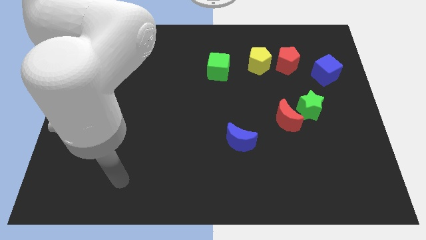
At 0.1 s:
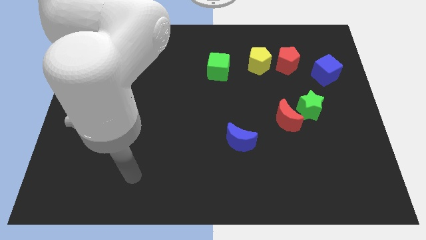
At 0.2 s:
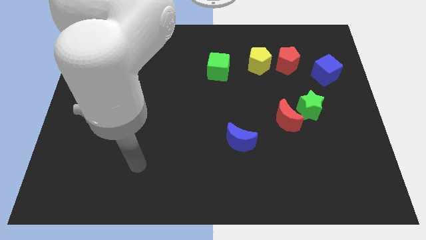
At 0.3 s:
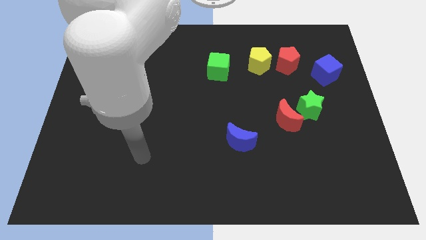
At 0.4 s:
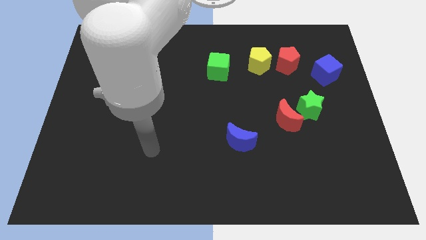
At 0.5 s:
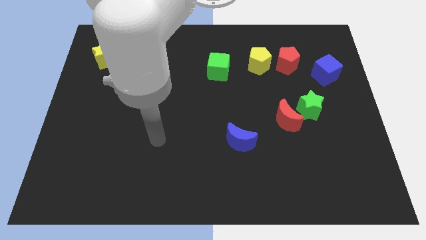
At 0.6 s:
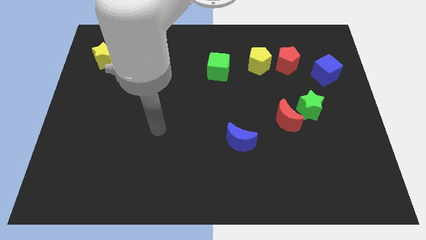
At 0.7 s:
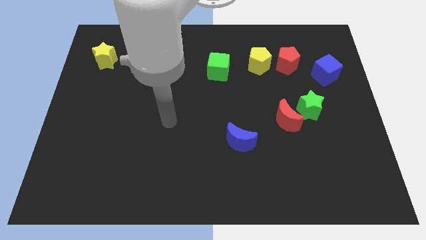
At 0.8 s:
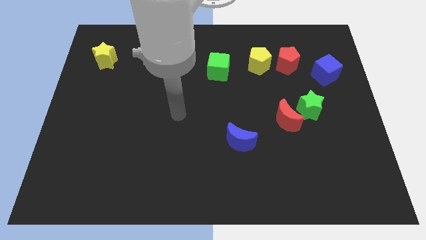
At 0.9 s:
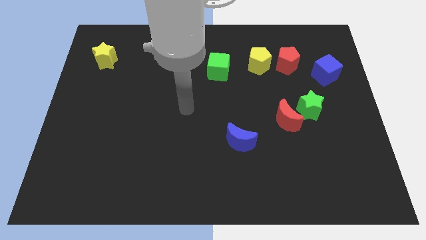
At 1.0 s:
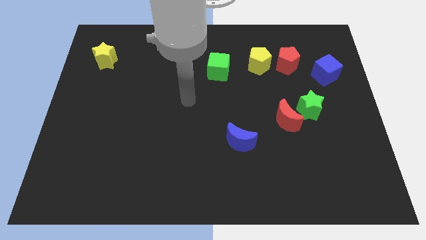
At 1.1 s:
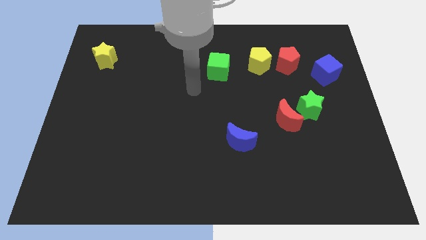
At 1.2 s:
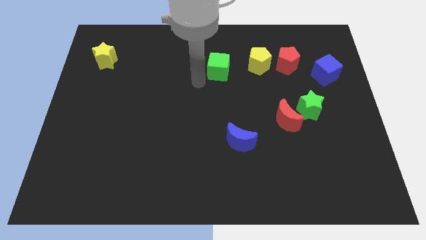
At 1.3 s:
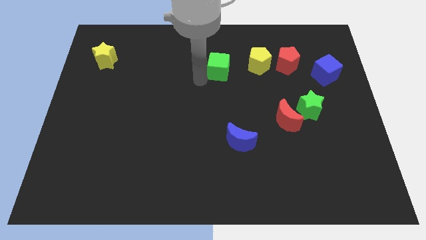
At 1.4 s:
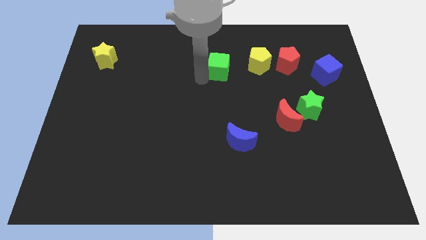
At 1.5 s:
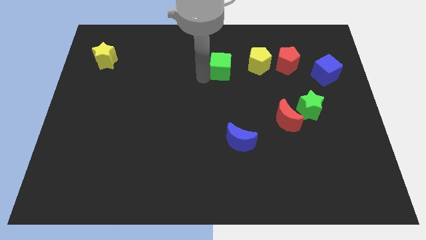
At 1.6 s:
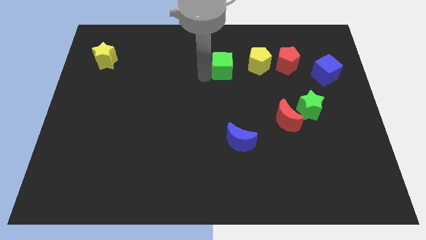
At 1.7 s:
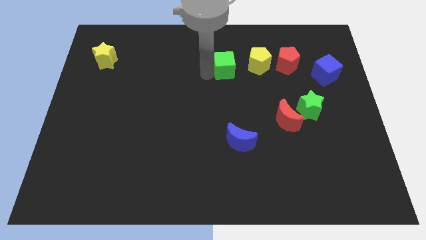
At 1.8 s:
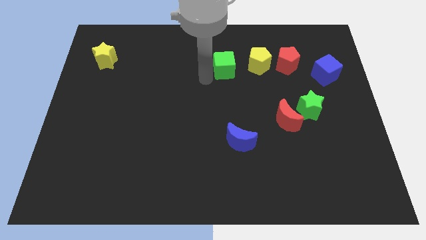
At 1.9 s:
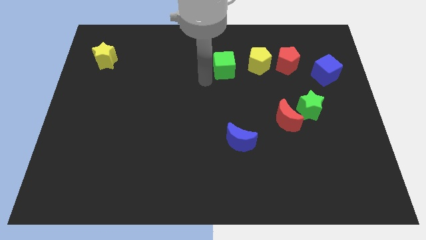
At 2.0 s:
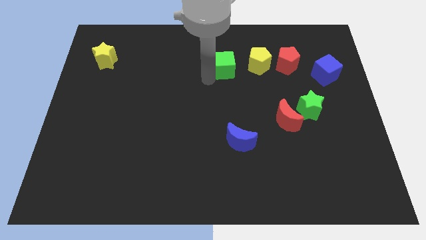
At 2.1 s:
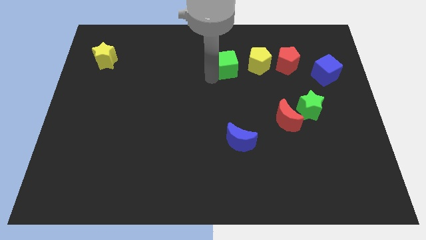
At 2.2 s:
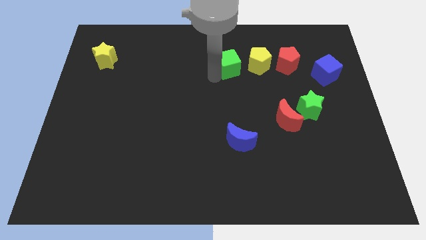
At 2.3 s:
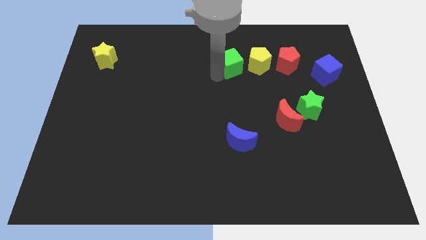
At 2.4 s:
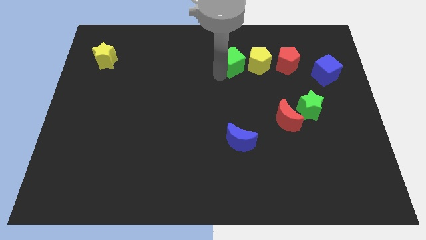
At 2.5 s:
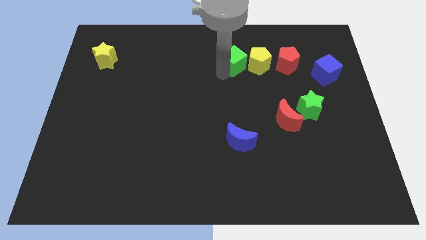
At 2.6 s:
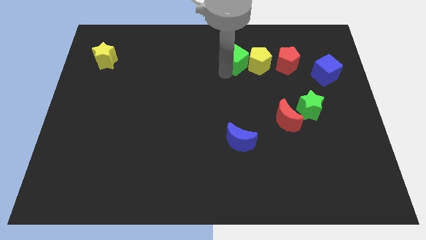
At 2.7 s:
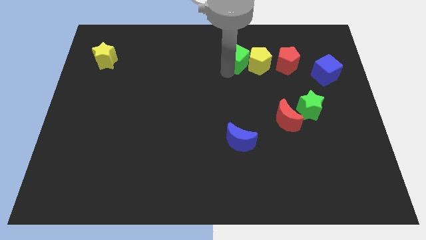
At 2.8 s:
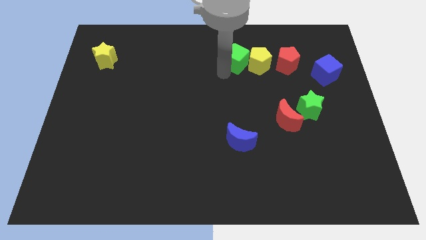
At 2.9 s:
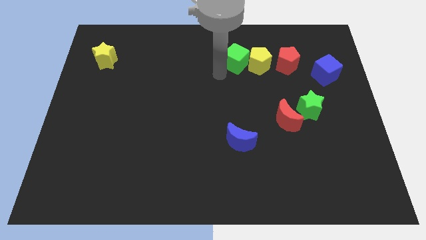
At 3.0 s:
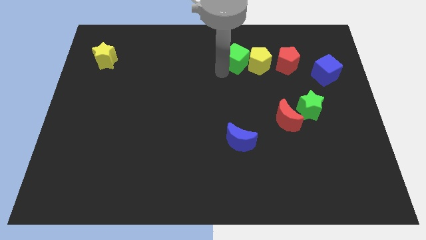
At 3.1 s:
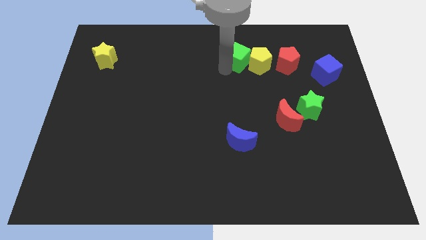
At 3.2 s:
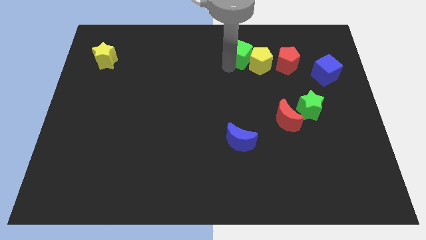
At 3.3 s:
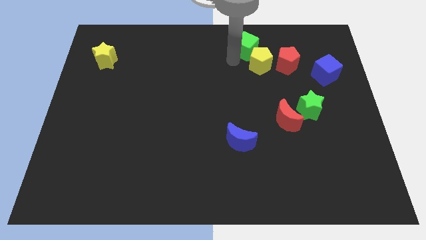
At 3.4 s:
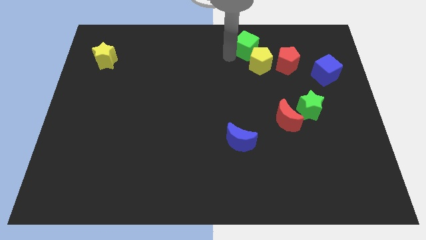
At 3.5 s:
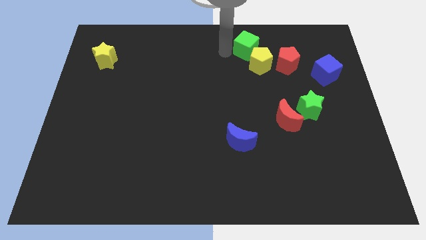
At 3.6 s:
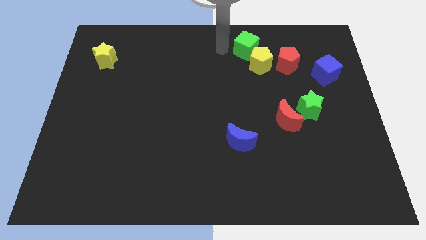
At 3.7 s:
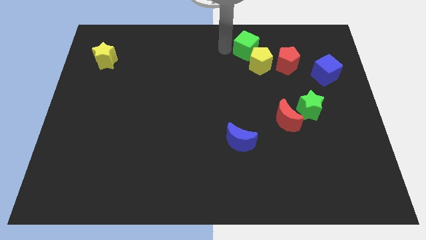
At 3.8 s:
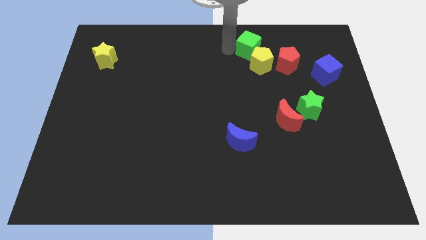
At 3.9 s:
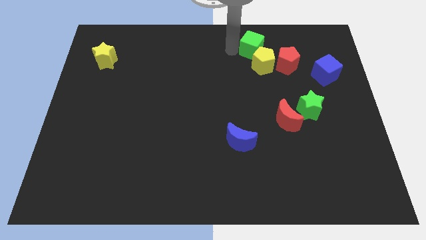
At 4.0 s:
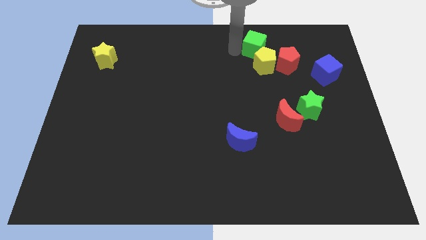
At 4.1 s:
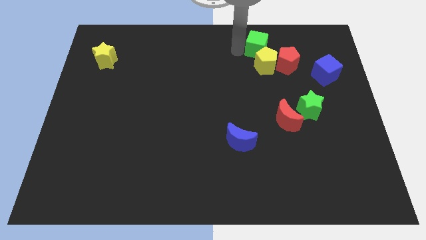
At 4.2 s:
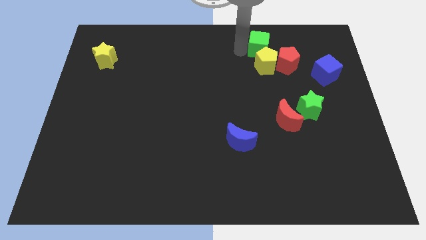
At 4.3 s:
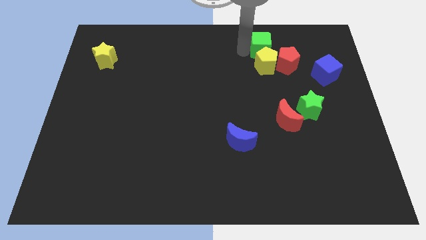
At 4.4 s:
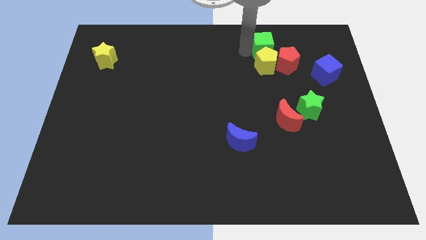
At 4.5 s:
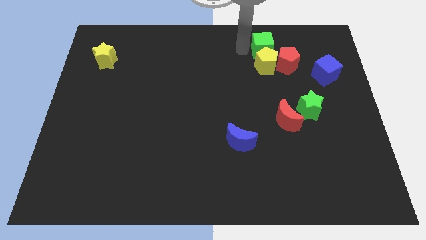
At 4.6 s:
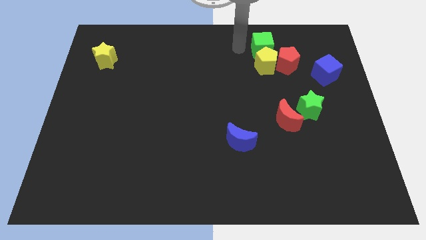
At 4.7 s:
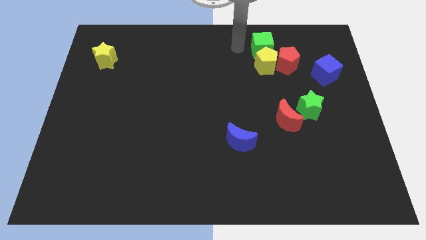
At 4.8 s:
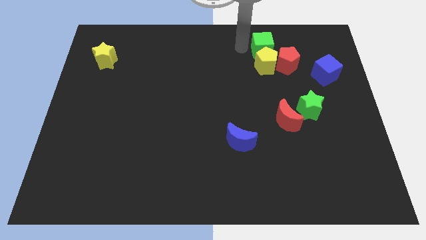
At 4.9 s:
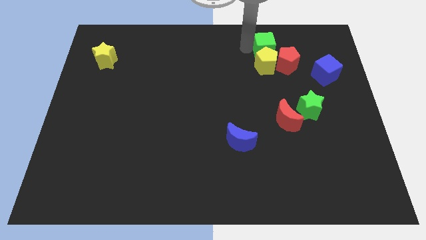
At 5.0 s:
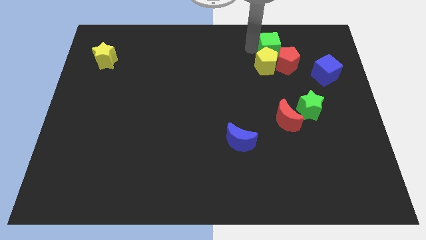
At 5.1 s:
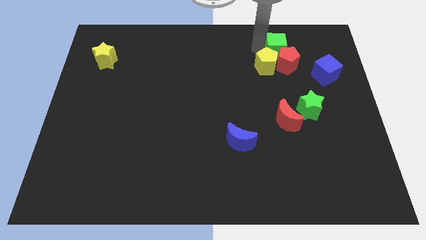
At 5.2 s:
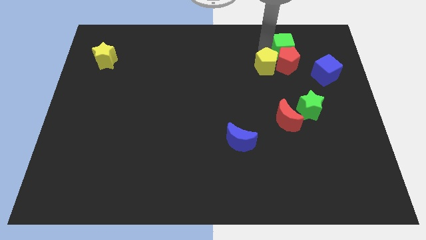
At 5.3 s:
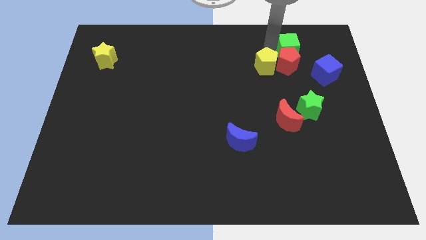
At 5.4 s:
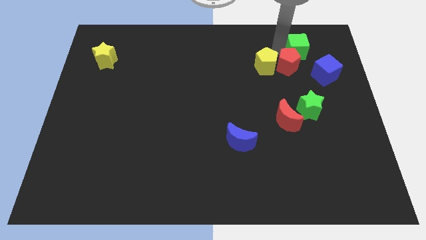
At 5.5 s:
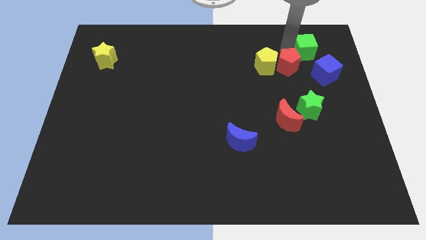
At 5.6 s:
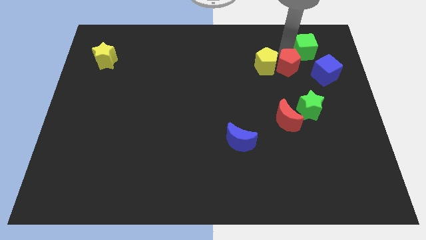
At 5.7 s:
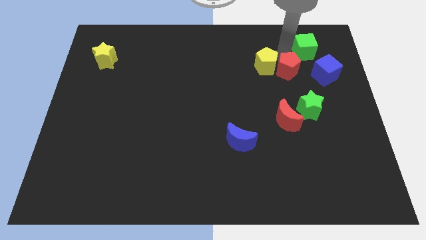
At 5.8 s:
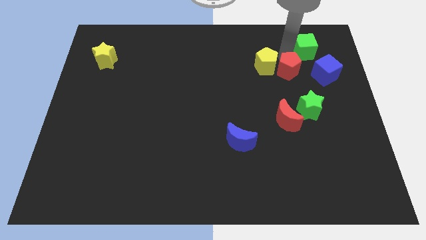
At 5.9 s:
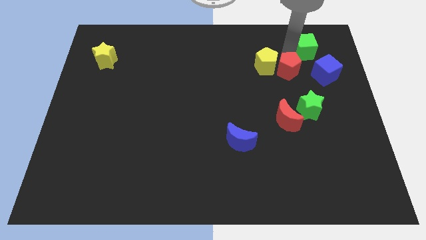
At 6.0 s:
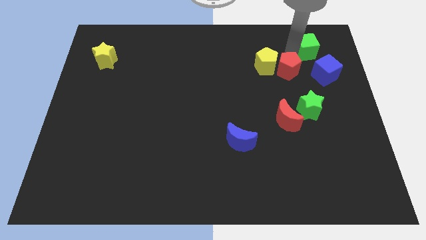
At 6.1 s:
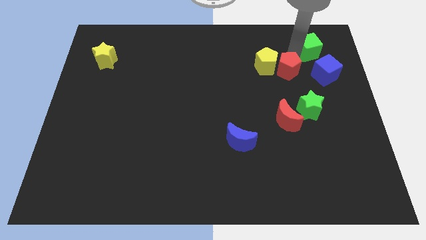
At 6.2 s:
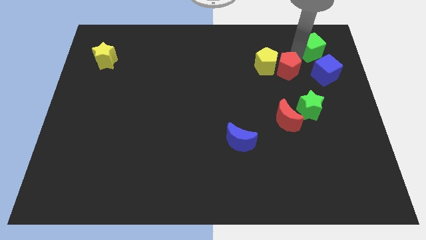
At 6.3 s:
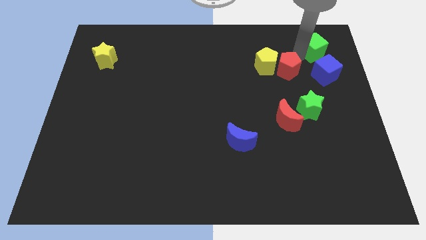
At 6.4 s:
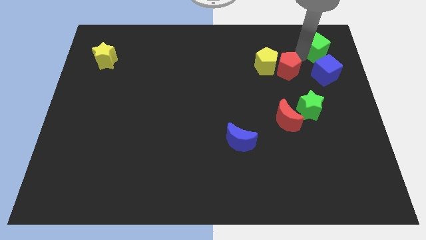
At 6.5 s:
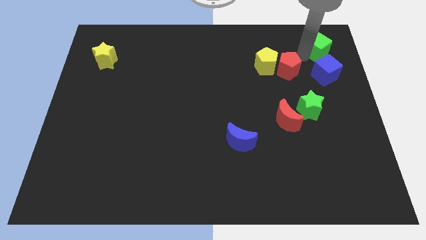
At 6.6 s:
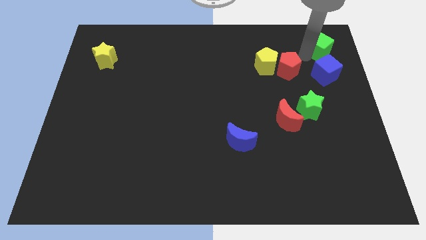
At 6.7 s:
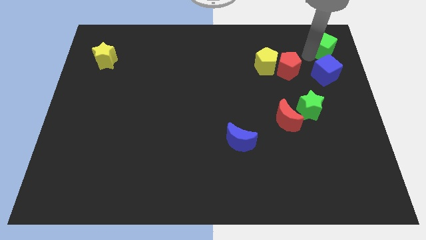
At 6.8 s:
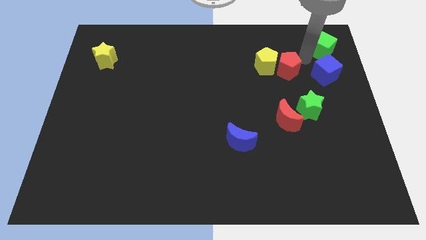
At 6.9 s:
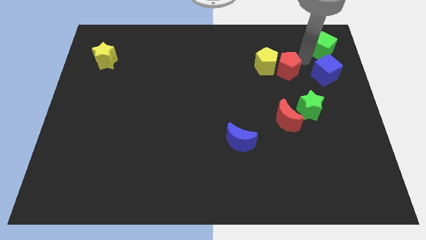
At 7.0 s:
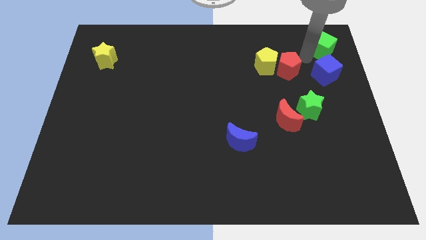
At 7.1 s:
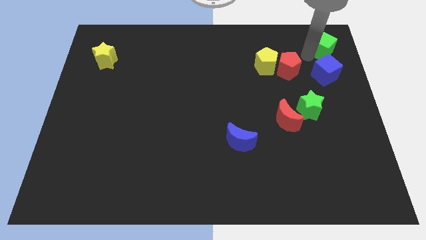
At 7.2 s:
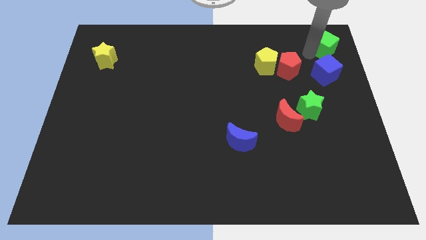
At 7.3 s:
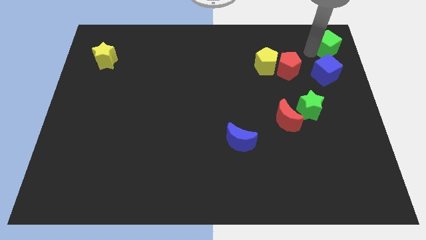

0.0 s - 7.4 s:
push the green cube to the top right corner
